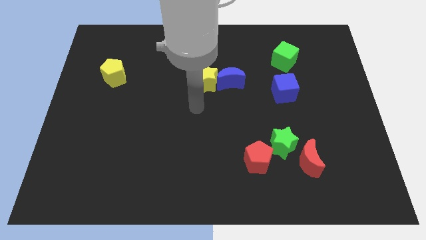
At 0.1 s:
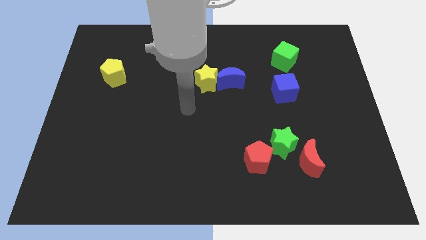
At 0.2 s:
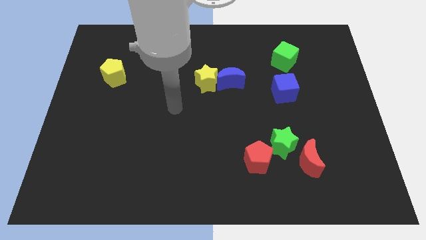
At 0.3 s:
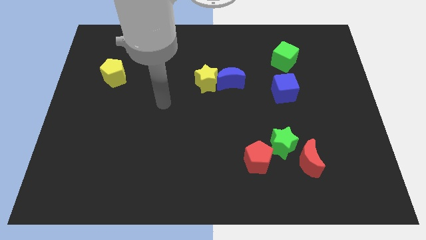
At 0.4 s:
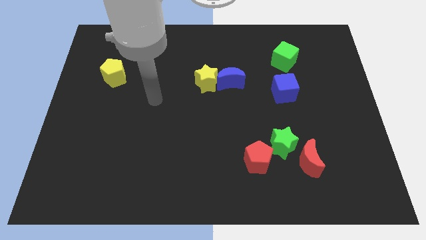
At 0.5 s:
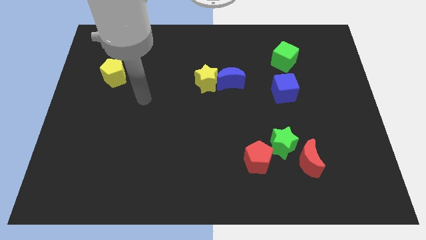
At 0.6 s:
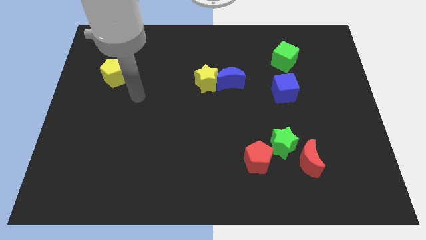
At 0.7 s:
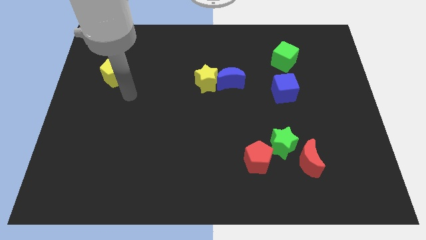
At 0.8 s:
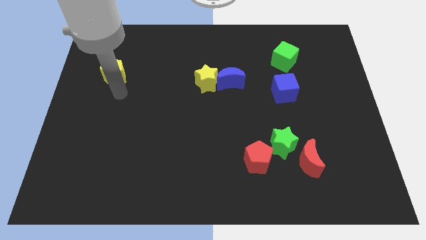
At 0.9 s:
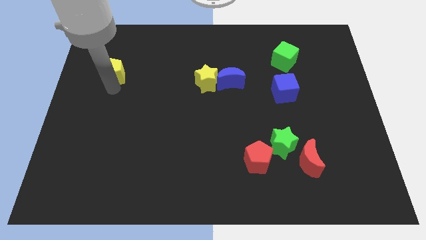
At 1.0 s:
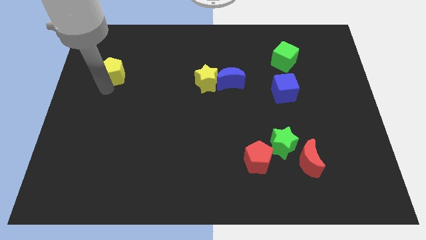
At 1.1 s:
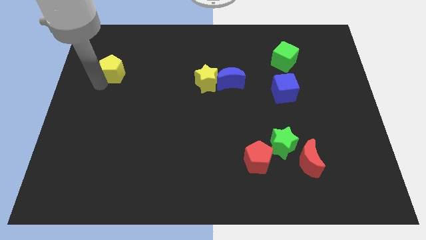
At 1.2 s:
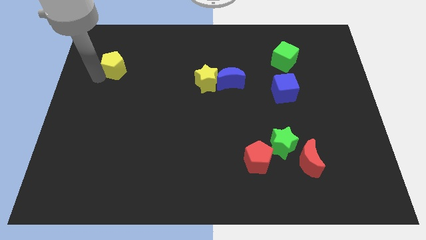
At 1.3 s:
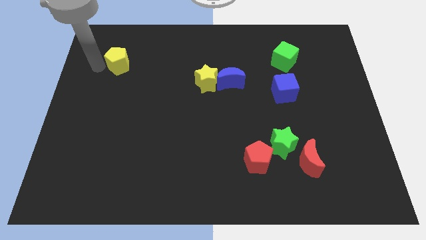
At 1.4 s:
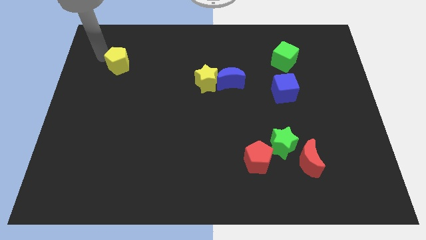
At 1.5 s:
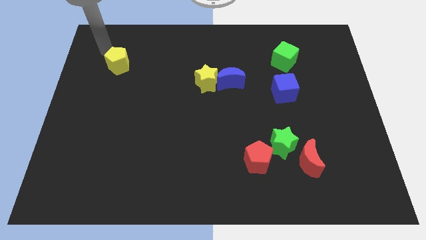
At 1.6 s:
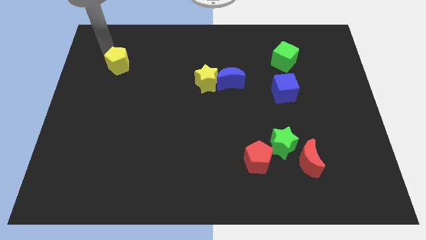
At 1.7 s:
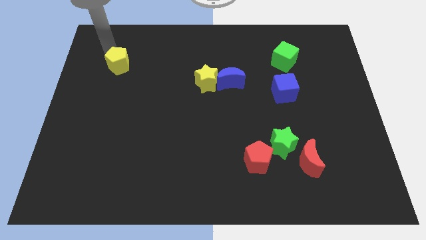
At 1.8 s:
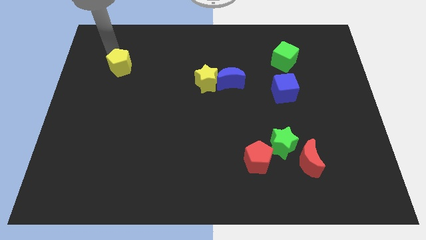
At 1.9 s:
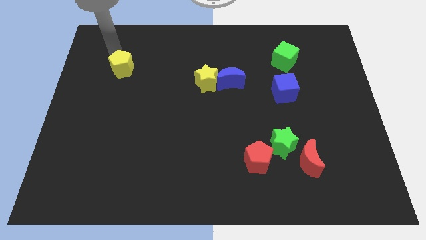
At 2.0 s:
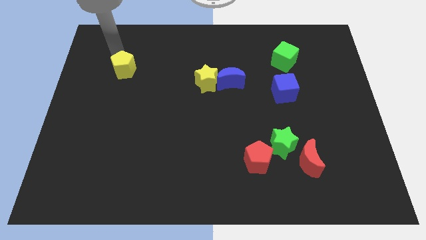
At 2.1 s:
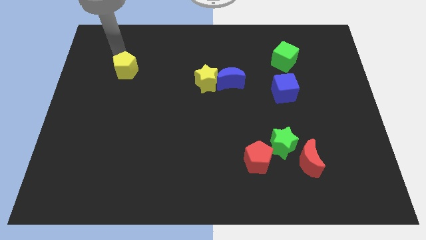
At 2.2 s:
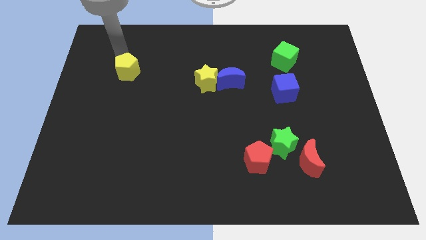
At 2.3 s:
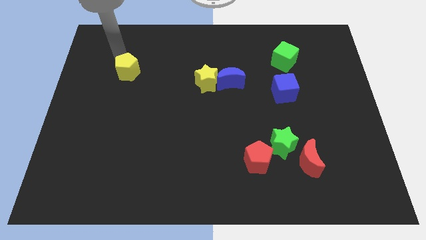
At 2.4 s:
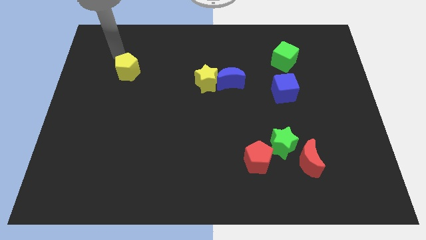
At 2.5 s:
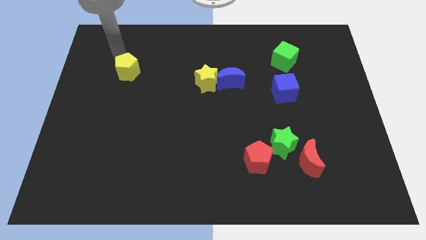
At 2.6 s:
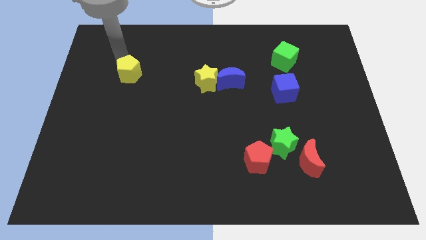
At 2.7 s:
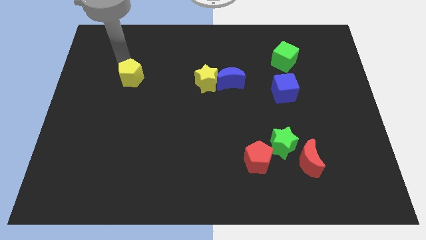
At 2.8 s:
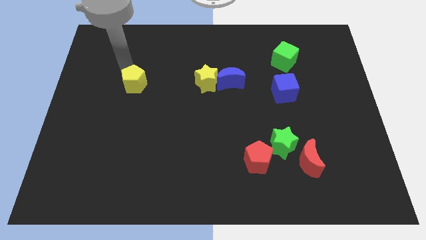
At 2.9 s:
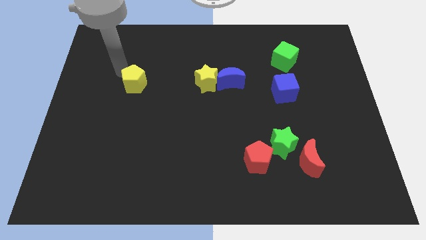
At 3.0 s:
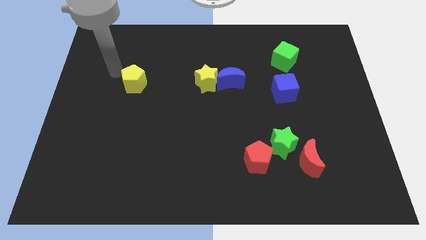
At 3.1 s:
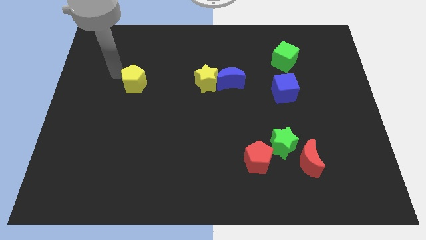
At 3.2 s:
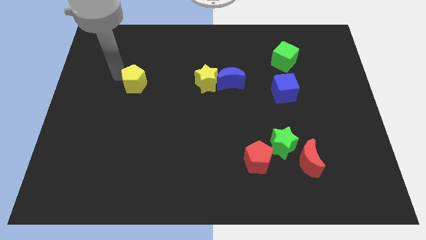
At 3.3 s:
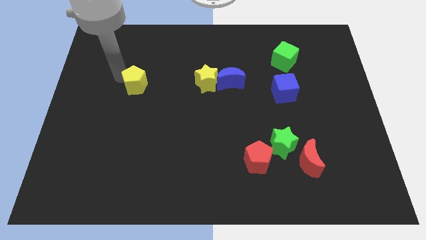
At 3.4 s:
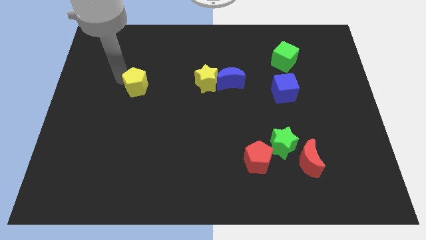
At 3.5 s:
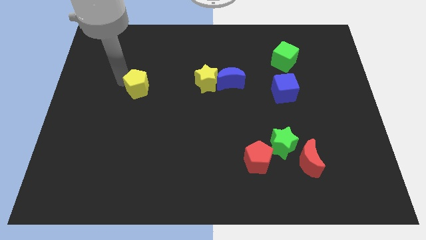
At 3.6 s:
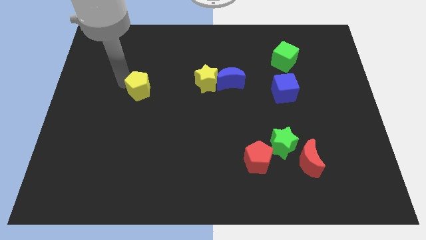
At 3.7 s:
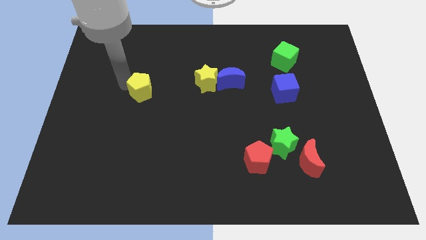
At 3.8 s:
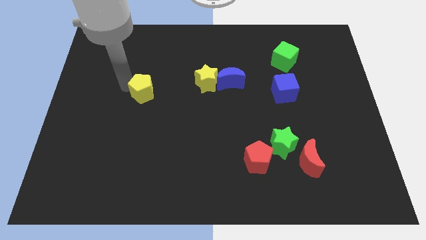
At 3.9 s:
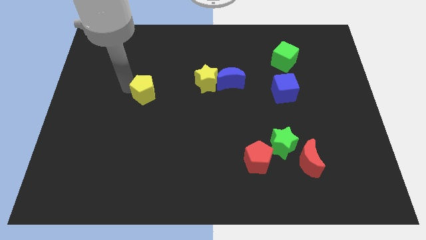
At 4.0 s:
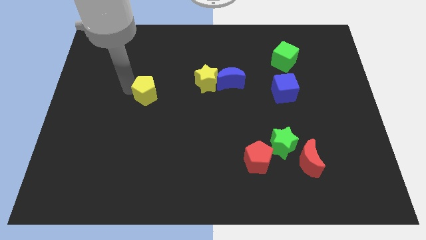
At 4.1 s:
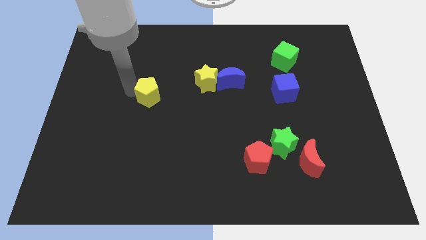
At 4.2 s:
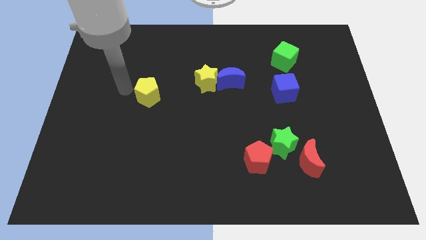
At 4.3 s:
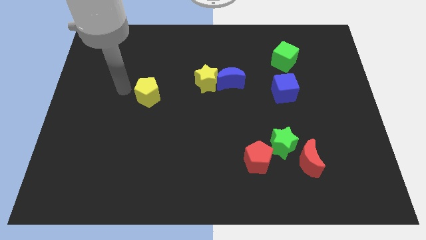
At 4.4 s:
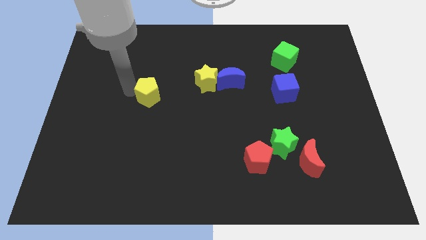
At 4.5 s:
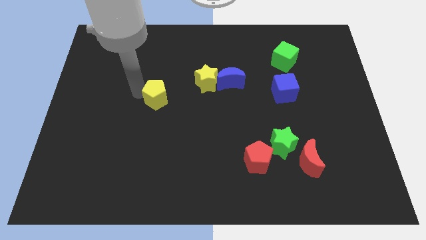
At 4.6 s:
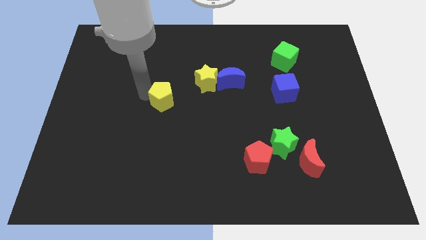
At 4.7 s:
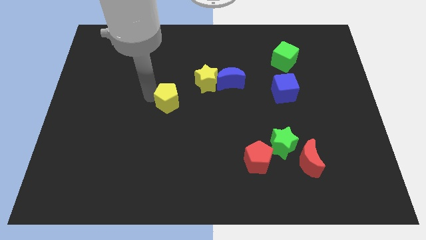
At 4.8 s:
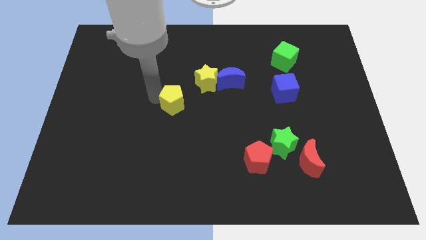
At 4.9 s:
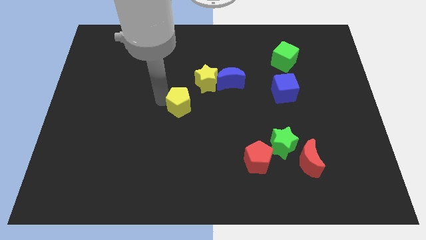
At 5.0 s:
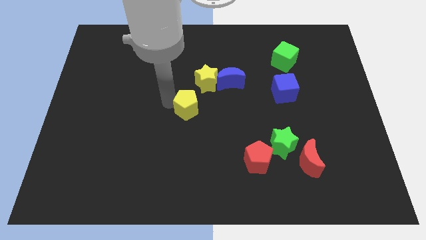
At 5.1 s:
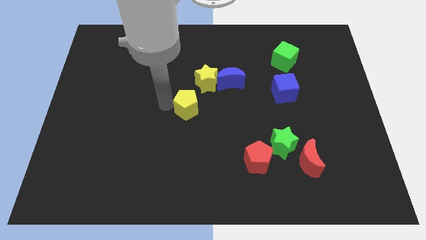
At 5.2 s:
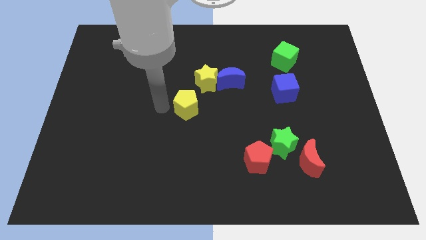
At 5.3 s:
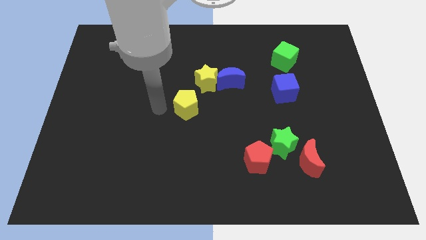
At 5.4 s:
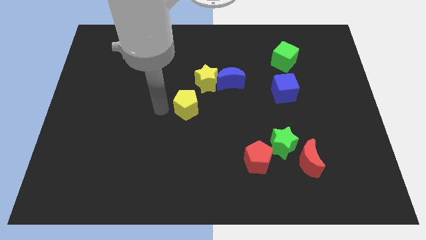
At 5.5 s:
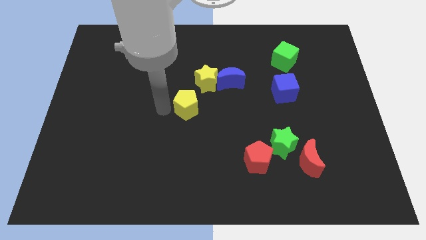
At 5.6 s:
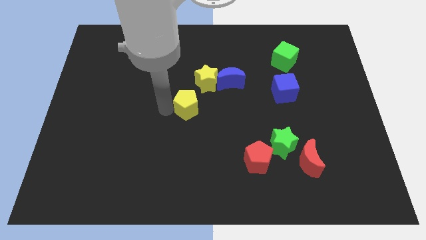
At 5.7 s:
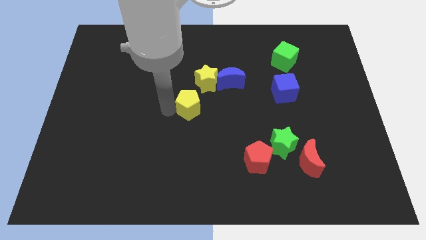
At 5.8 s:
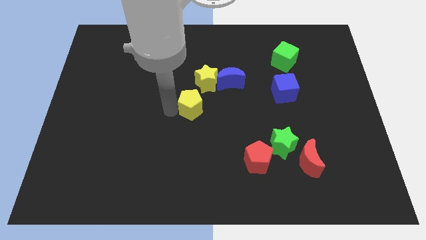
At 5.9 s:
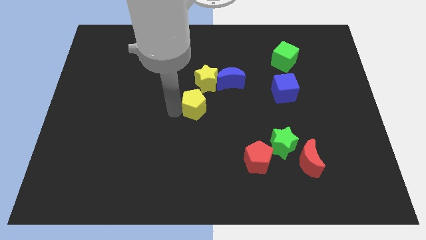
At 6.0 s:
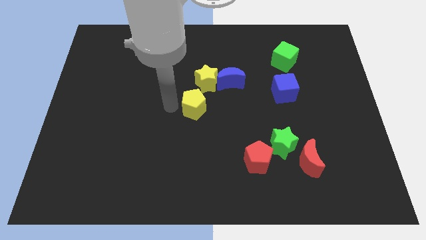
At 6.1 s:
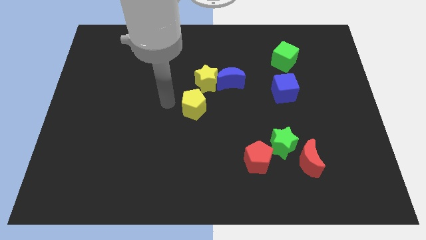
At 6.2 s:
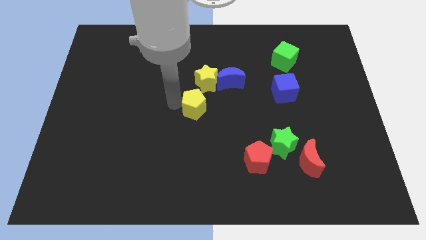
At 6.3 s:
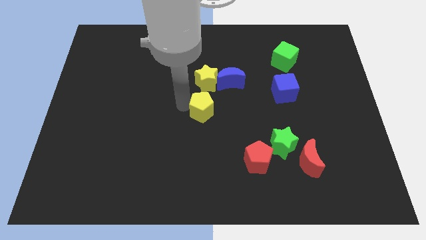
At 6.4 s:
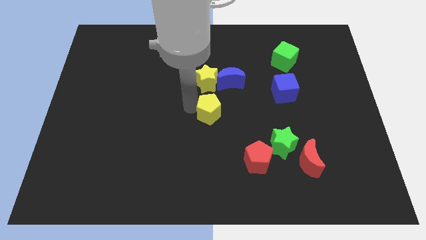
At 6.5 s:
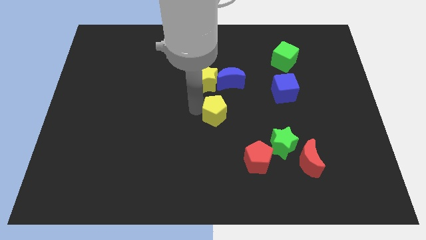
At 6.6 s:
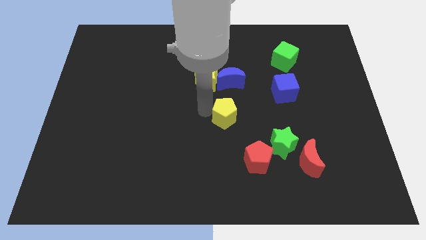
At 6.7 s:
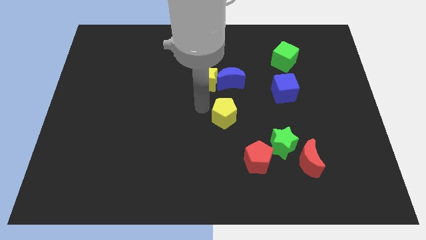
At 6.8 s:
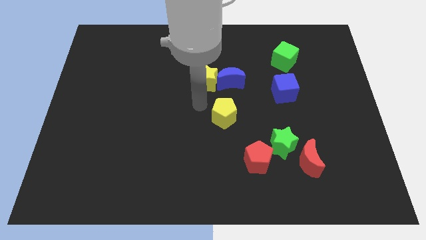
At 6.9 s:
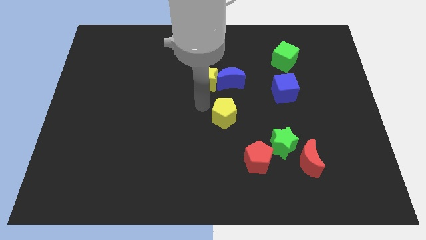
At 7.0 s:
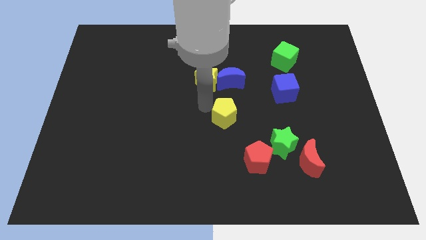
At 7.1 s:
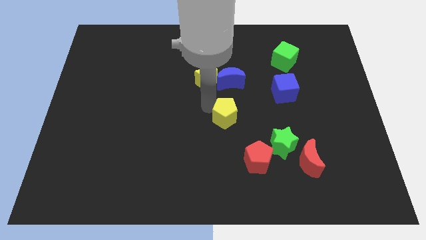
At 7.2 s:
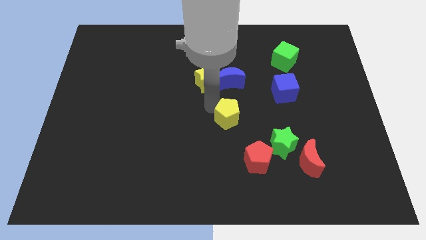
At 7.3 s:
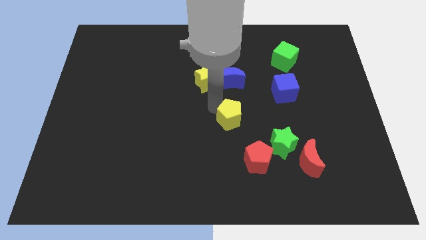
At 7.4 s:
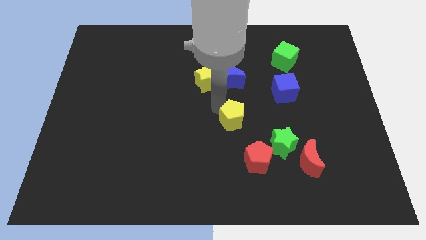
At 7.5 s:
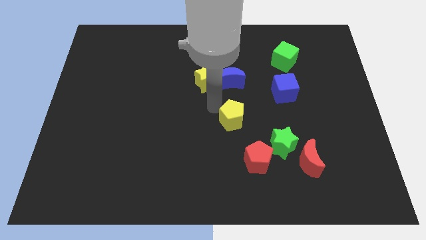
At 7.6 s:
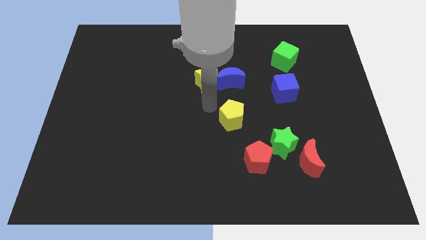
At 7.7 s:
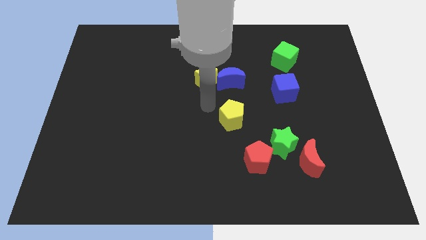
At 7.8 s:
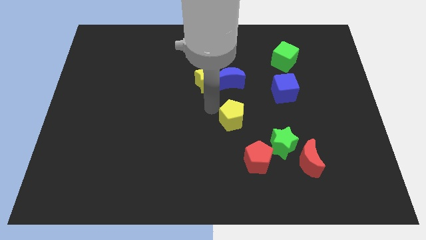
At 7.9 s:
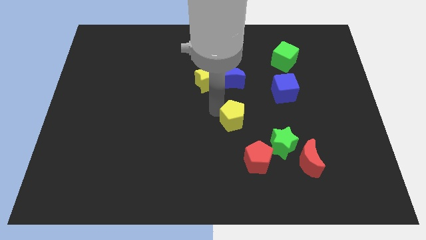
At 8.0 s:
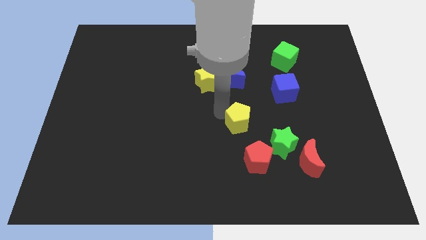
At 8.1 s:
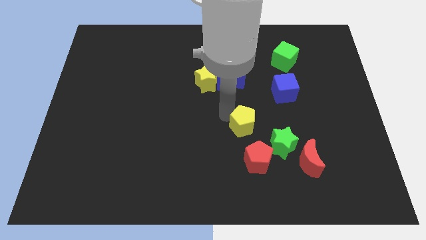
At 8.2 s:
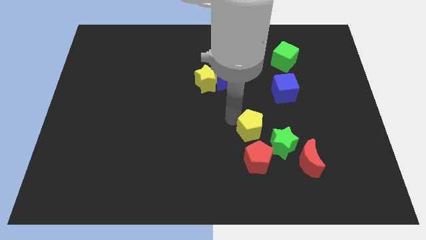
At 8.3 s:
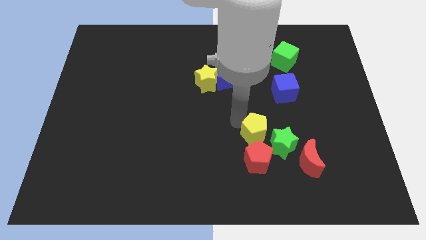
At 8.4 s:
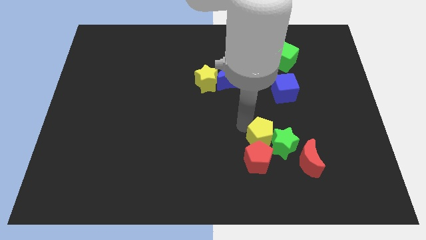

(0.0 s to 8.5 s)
move the yellow pentagon close to the green star
